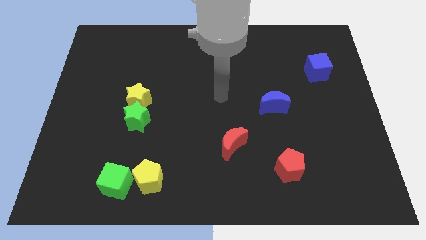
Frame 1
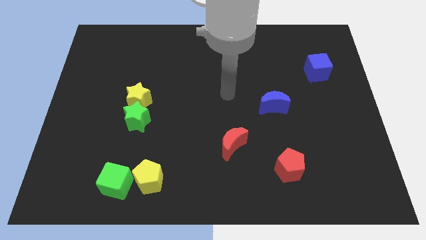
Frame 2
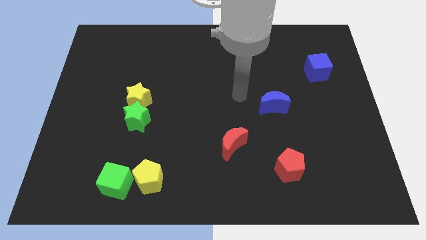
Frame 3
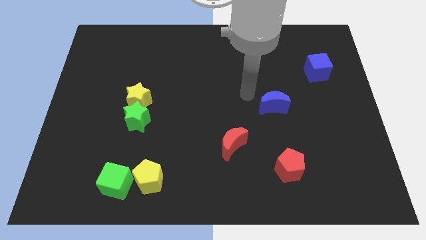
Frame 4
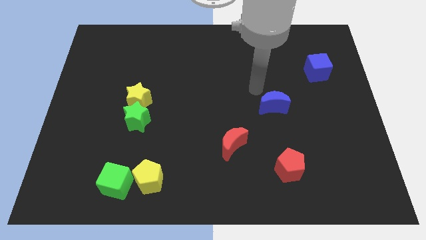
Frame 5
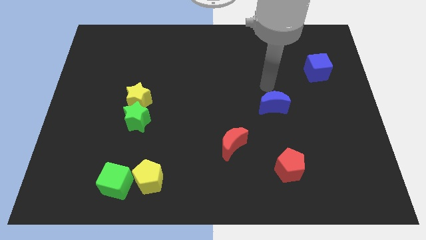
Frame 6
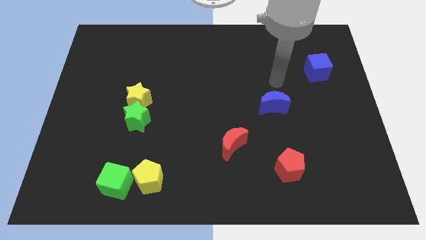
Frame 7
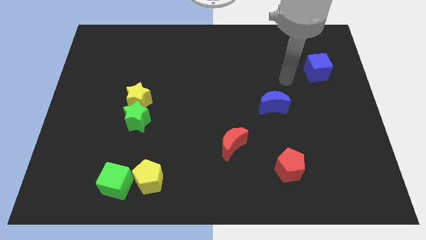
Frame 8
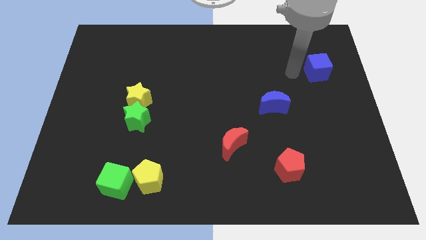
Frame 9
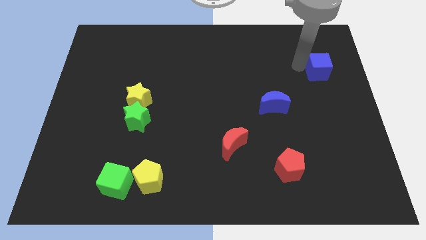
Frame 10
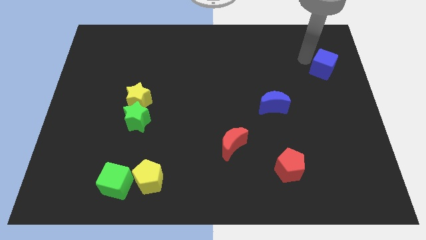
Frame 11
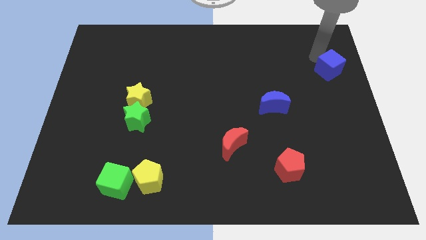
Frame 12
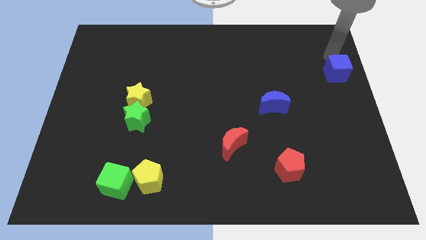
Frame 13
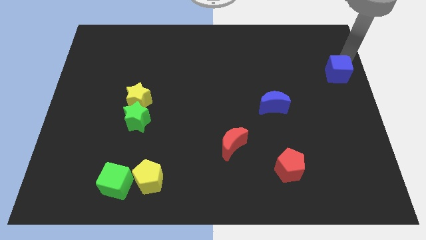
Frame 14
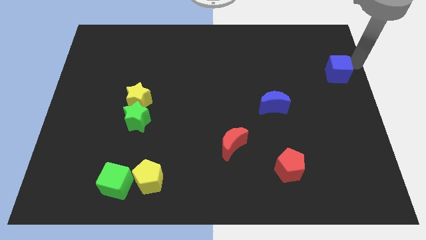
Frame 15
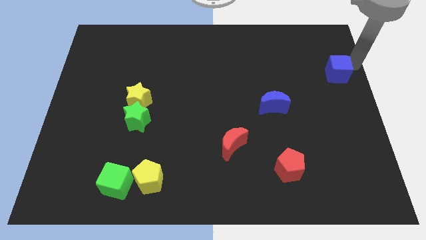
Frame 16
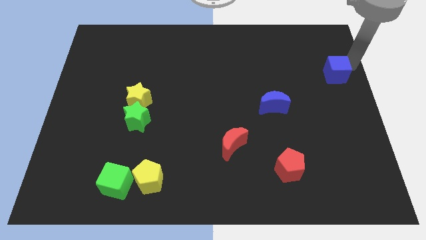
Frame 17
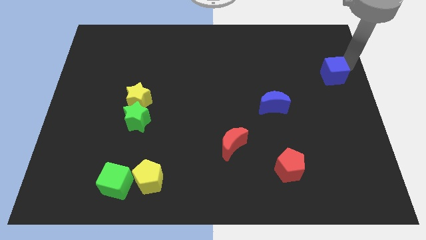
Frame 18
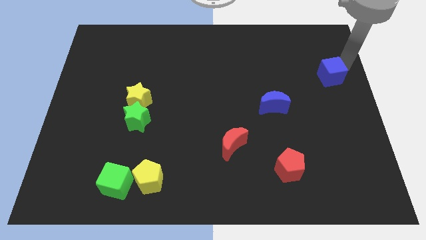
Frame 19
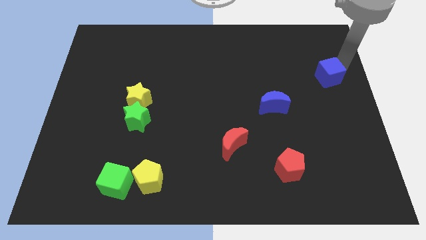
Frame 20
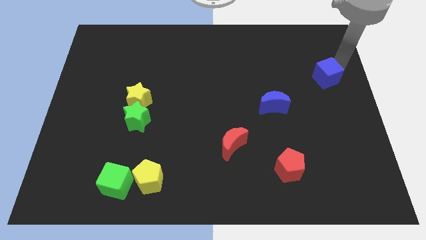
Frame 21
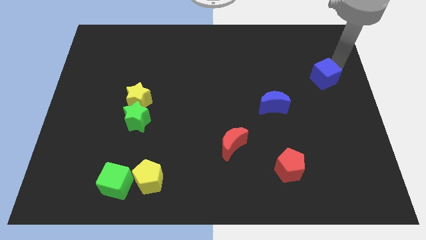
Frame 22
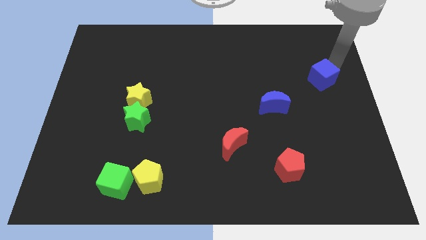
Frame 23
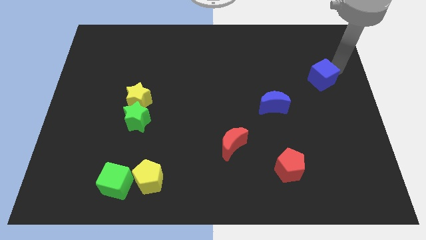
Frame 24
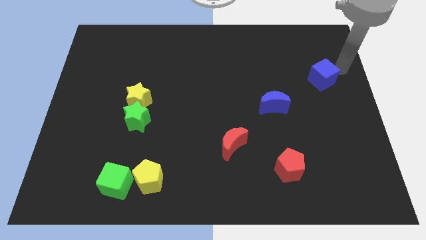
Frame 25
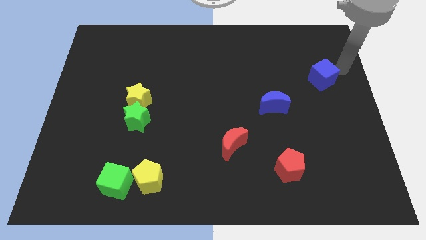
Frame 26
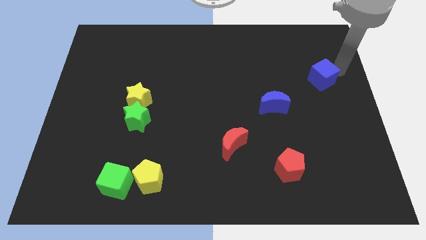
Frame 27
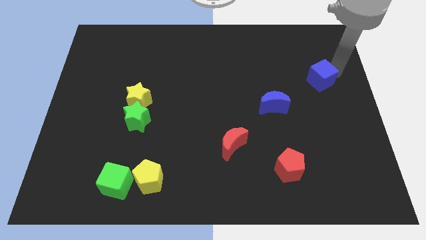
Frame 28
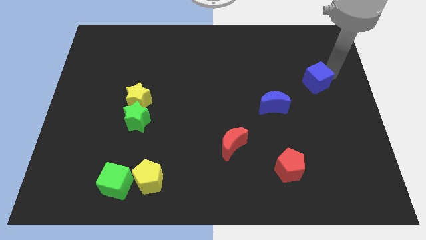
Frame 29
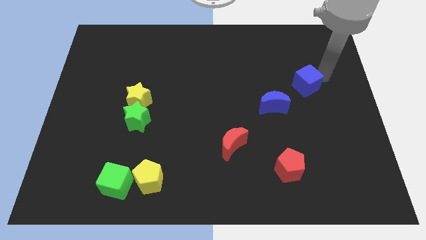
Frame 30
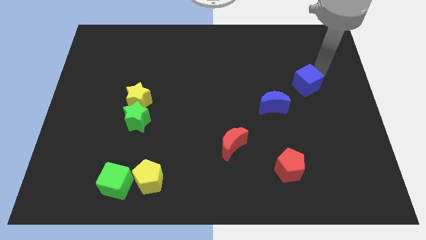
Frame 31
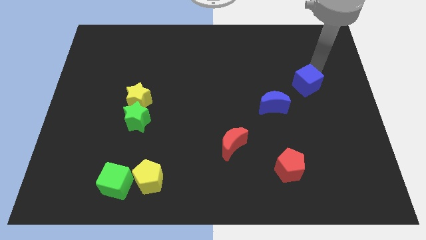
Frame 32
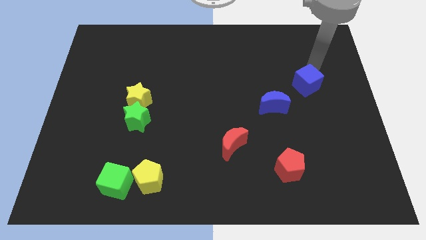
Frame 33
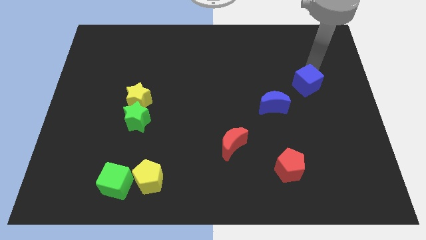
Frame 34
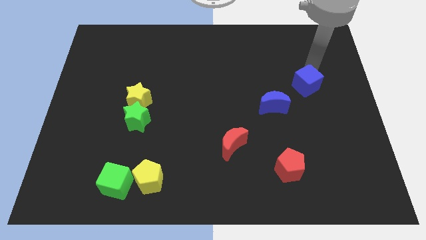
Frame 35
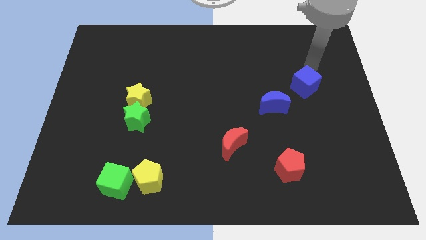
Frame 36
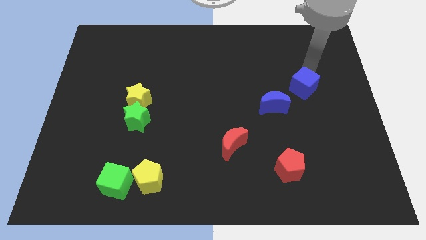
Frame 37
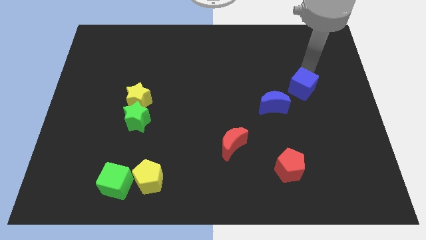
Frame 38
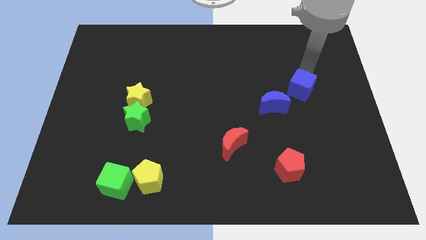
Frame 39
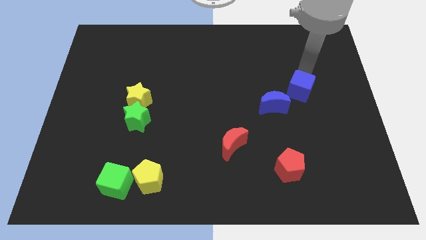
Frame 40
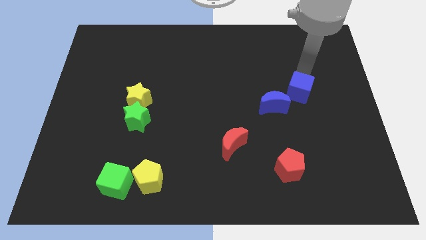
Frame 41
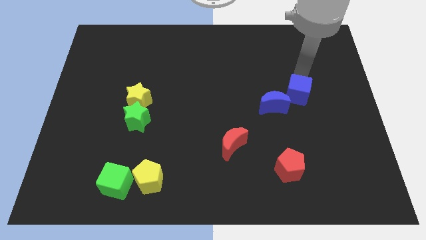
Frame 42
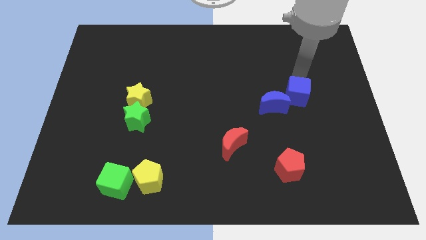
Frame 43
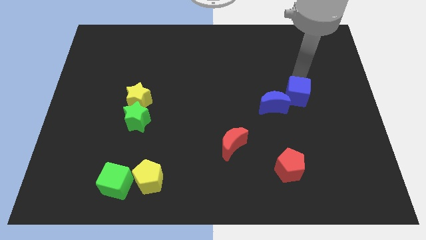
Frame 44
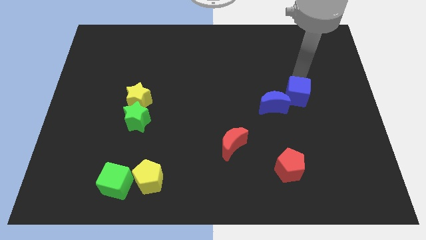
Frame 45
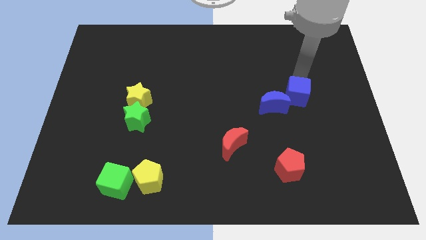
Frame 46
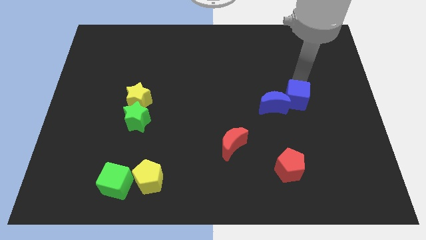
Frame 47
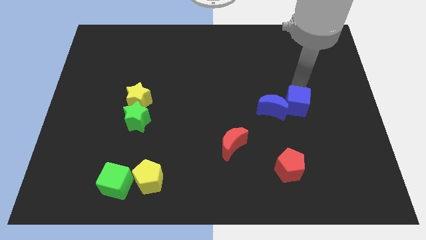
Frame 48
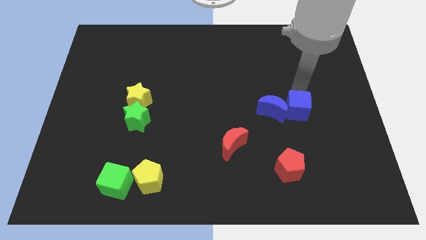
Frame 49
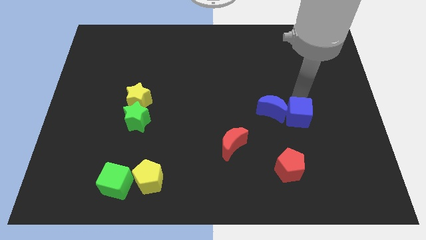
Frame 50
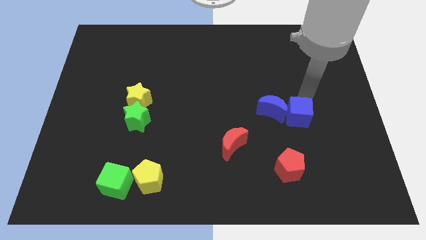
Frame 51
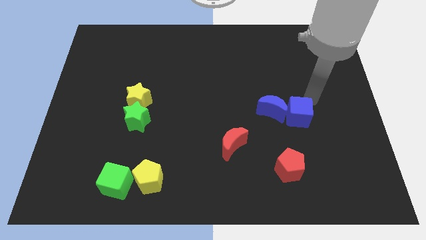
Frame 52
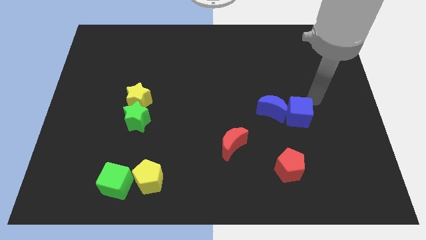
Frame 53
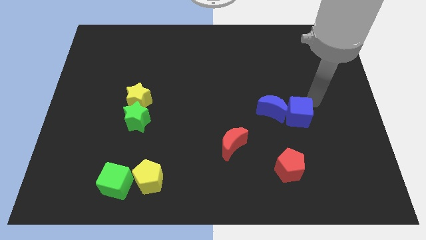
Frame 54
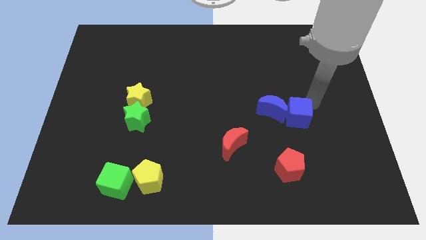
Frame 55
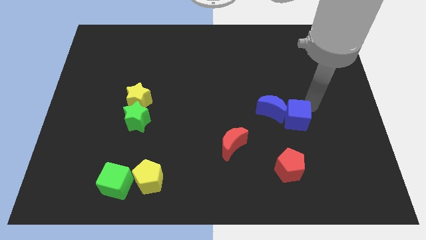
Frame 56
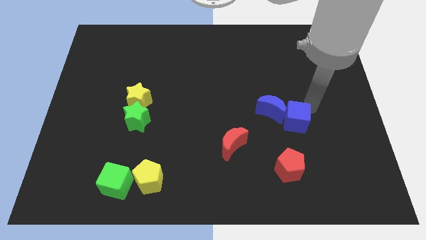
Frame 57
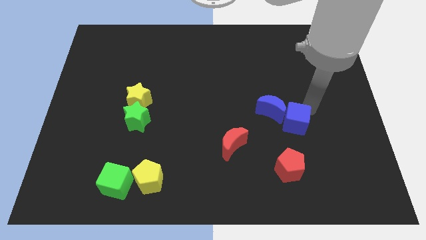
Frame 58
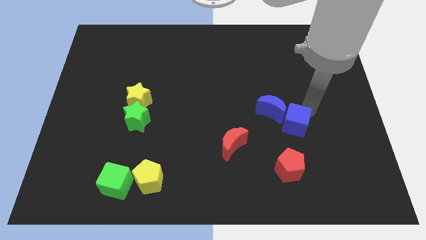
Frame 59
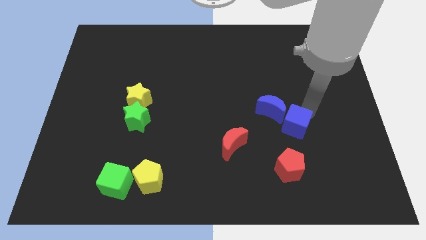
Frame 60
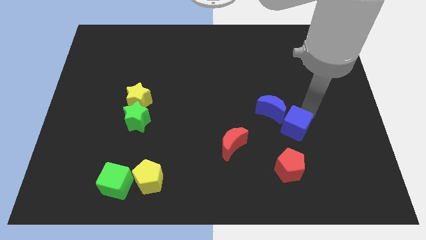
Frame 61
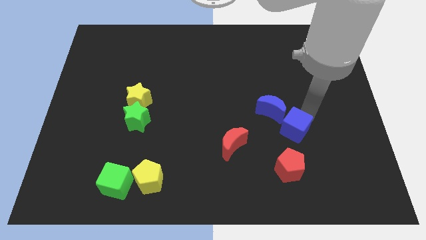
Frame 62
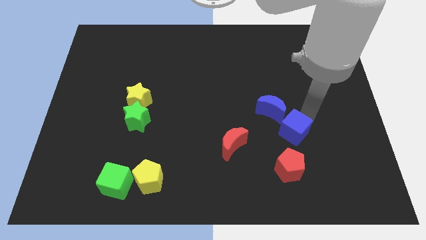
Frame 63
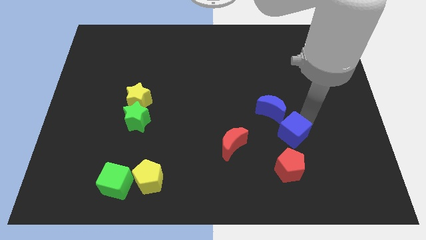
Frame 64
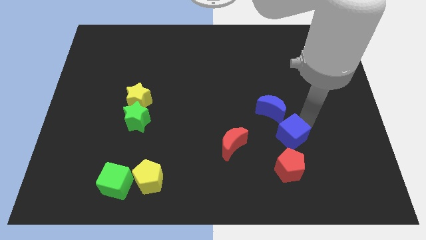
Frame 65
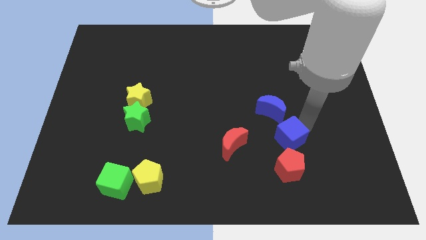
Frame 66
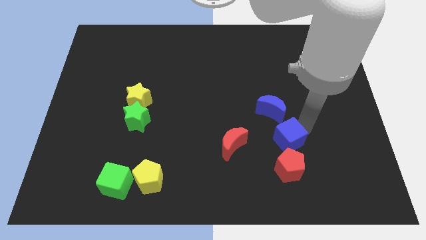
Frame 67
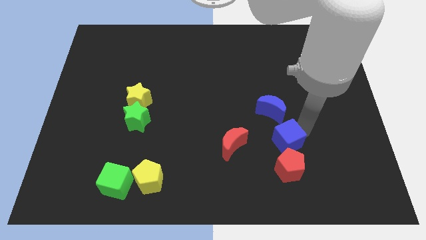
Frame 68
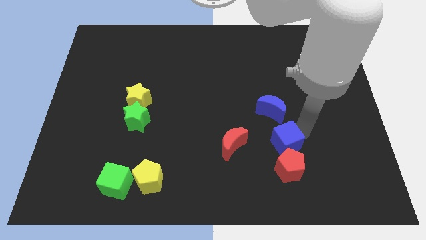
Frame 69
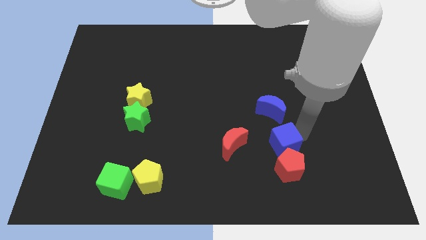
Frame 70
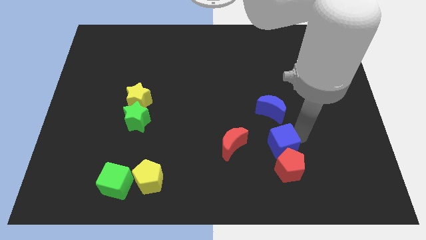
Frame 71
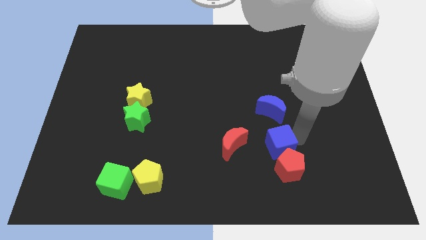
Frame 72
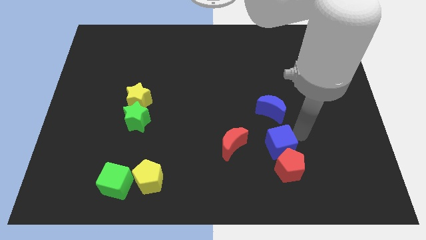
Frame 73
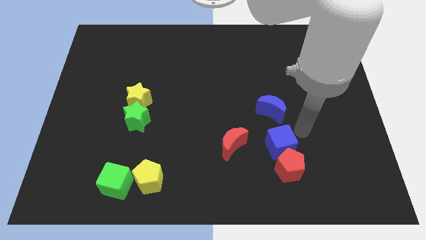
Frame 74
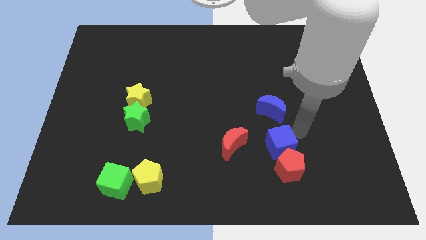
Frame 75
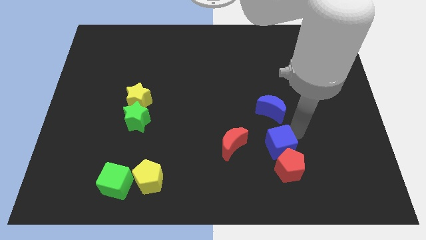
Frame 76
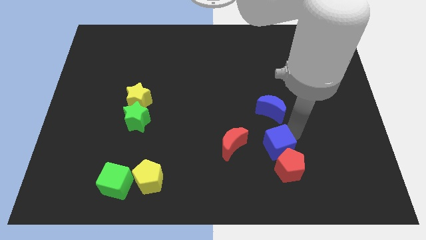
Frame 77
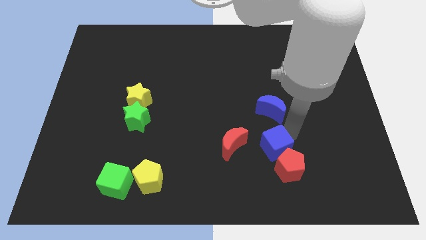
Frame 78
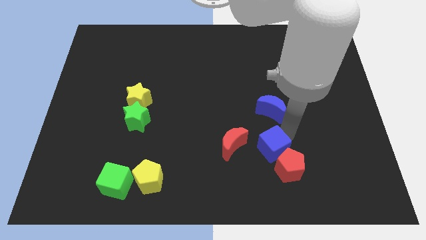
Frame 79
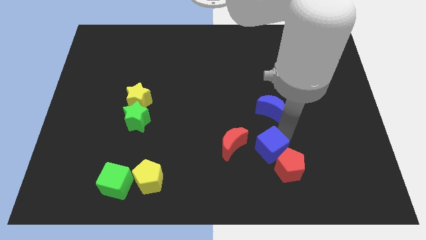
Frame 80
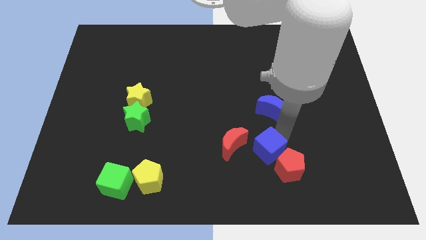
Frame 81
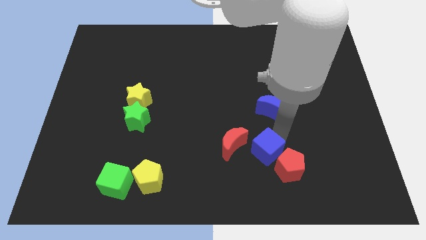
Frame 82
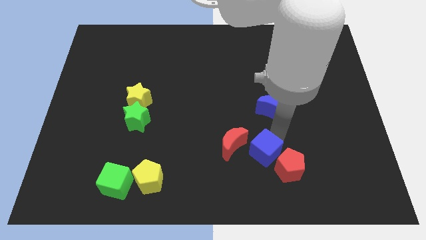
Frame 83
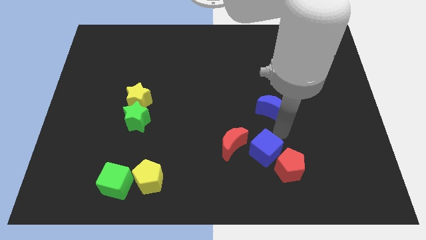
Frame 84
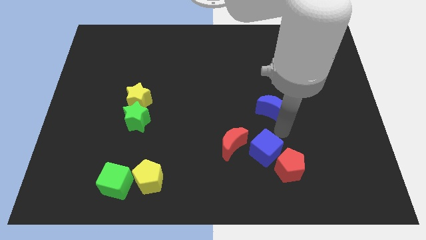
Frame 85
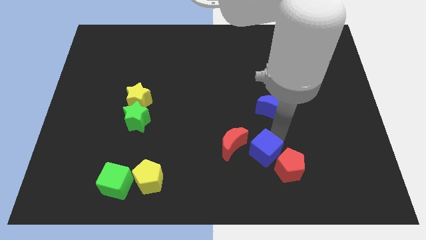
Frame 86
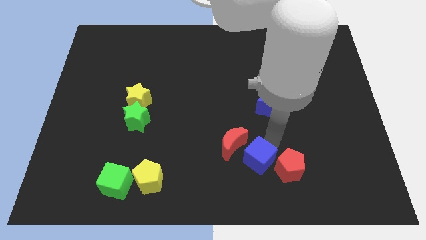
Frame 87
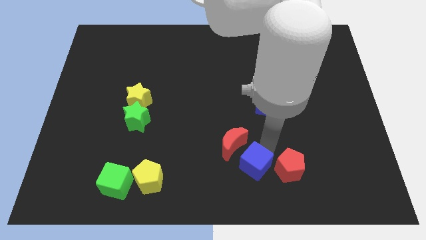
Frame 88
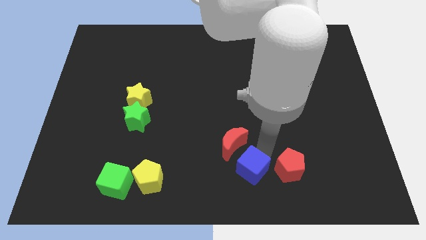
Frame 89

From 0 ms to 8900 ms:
move the blue cube to the bottom
